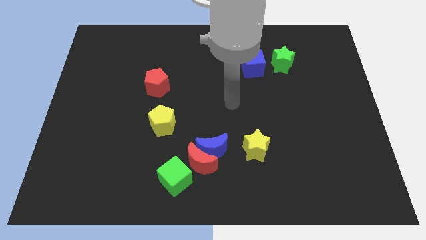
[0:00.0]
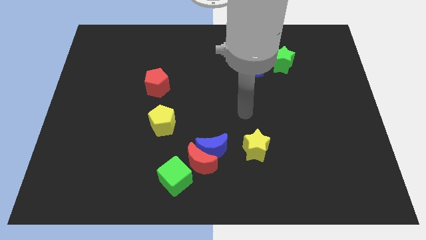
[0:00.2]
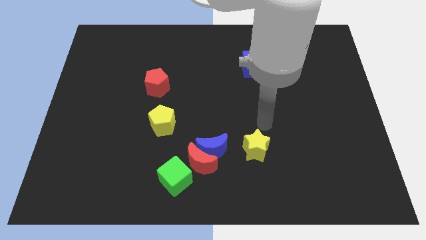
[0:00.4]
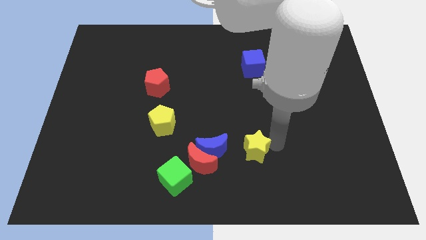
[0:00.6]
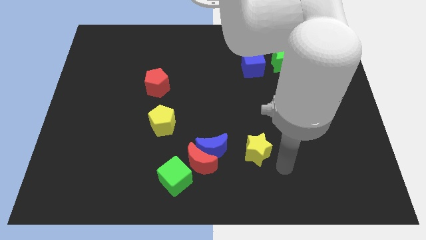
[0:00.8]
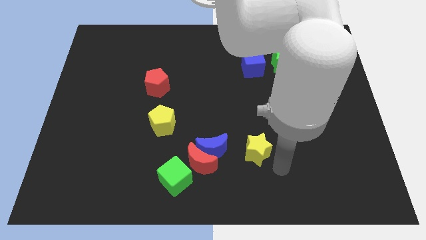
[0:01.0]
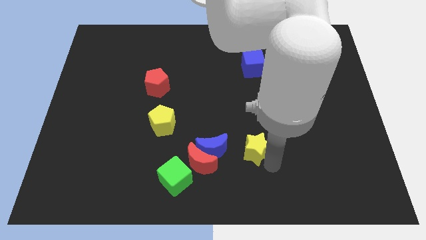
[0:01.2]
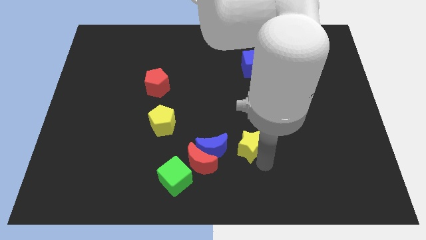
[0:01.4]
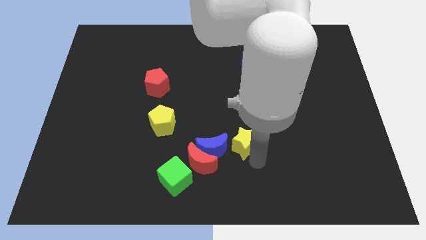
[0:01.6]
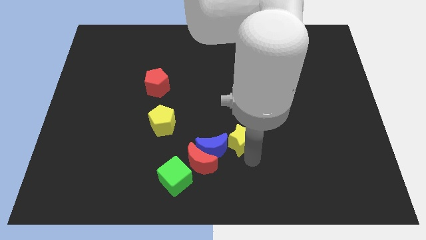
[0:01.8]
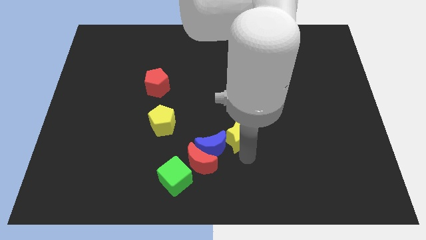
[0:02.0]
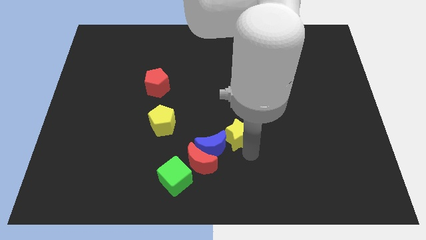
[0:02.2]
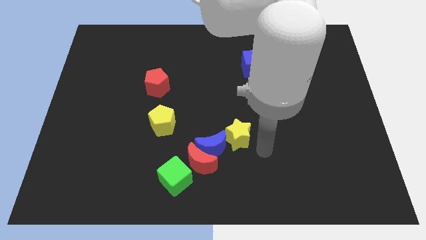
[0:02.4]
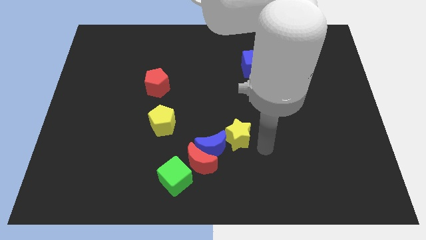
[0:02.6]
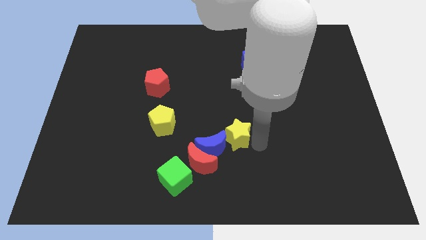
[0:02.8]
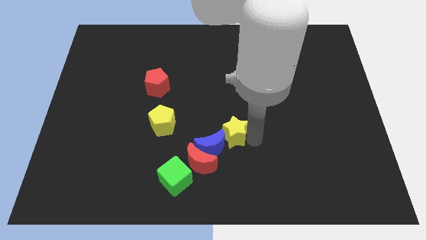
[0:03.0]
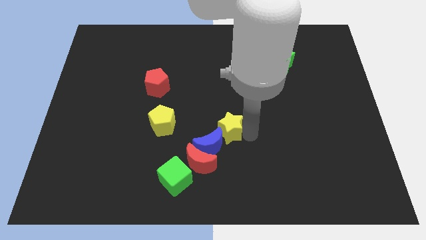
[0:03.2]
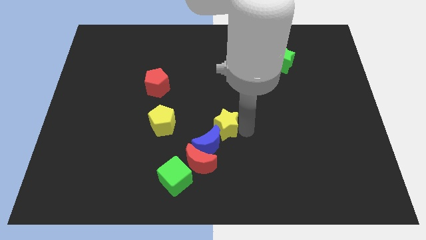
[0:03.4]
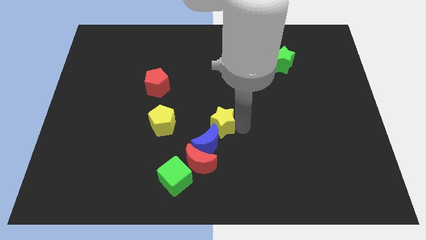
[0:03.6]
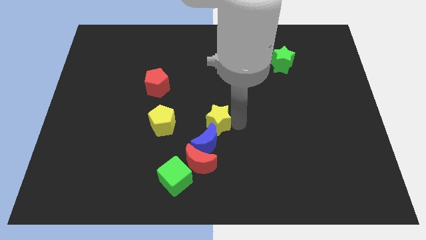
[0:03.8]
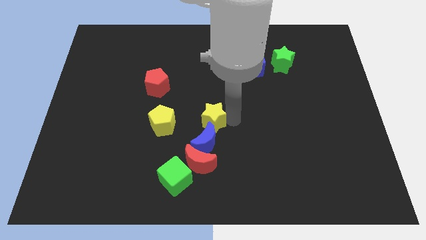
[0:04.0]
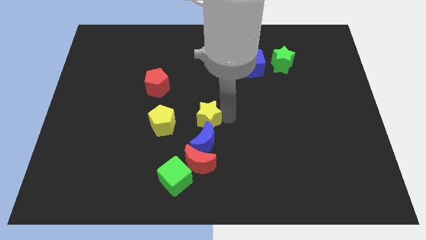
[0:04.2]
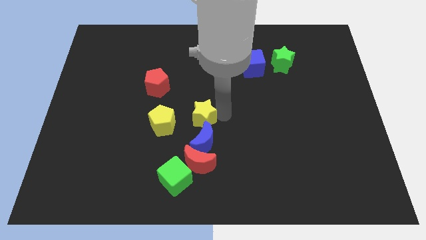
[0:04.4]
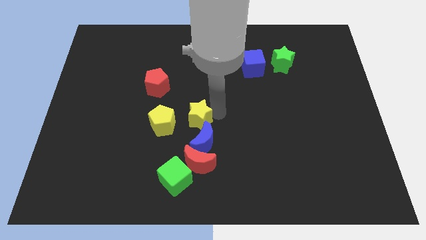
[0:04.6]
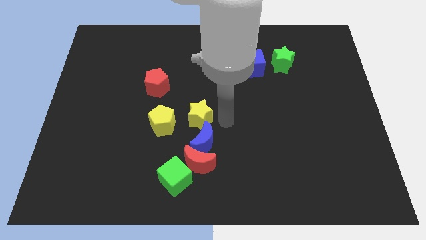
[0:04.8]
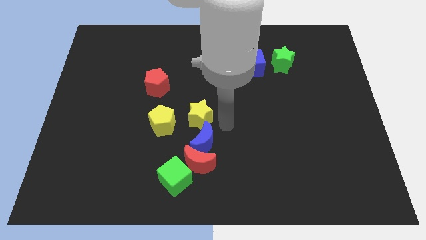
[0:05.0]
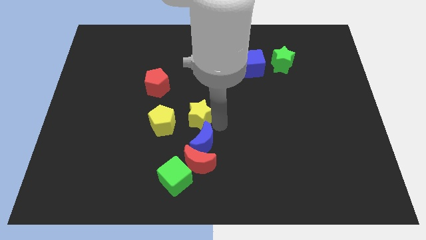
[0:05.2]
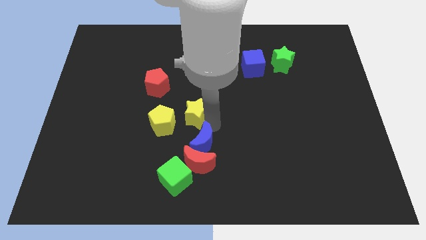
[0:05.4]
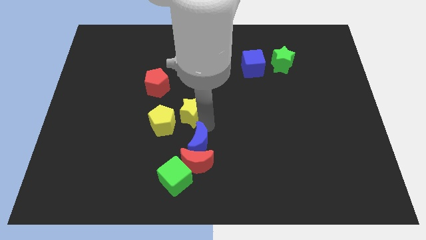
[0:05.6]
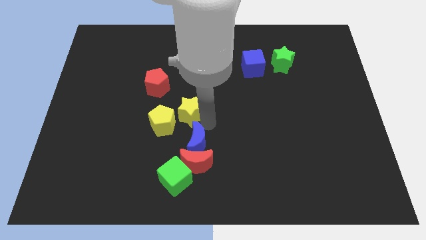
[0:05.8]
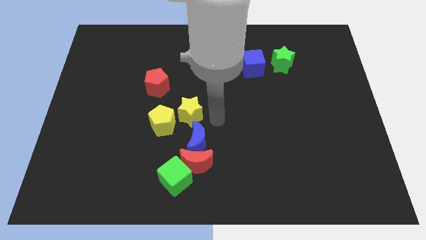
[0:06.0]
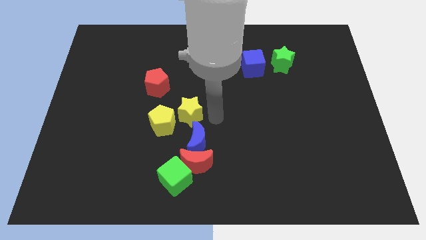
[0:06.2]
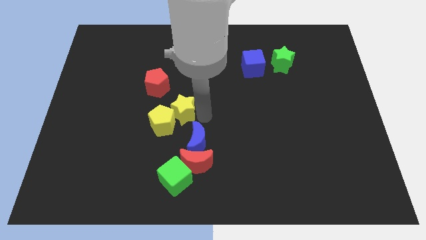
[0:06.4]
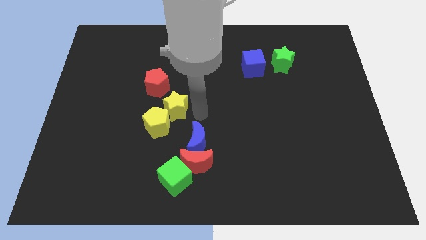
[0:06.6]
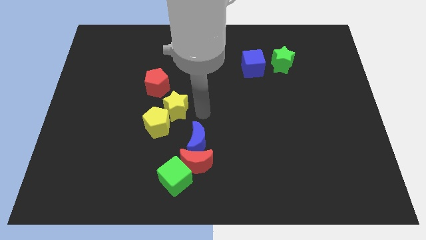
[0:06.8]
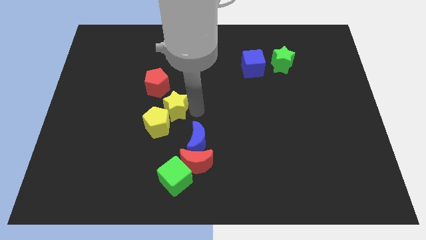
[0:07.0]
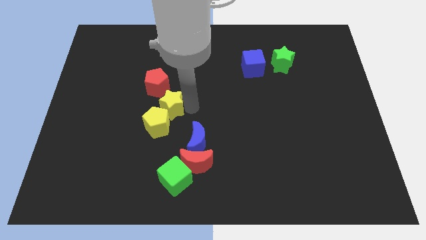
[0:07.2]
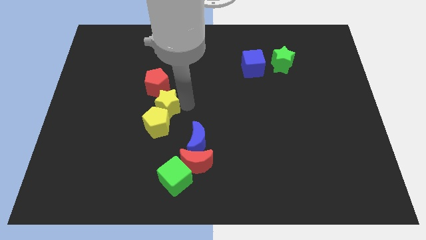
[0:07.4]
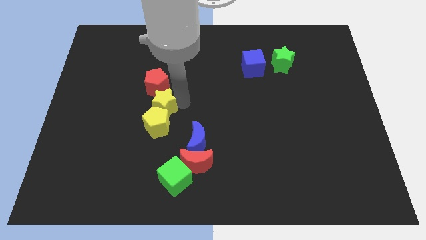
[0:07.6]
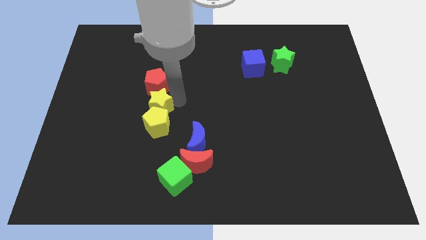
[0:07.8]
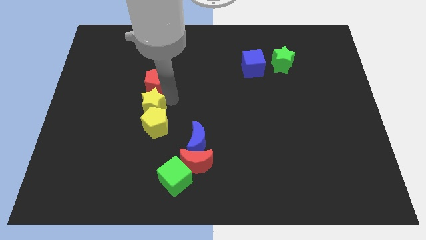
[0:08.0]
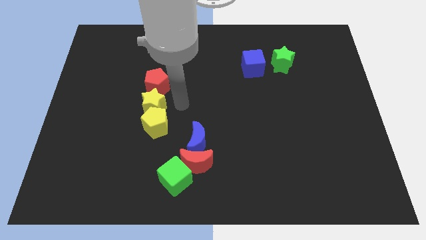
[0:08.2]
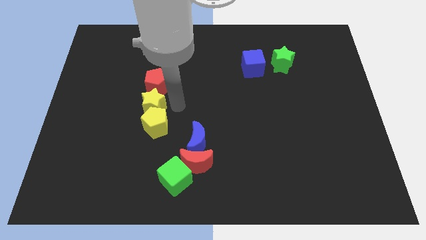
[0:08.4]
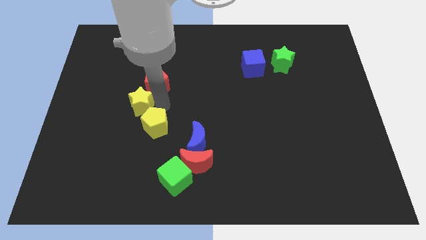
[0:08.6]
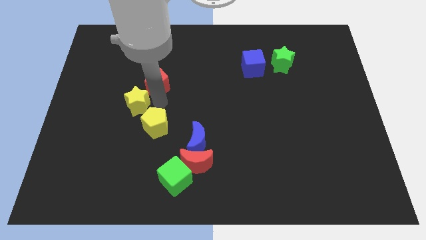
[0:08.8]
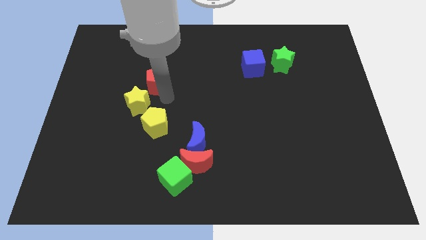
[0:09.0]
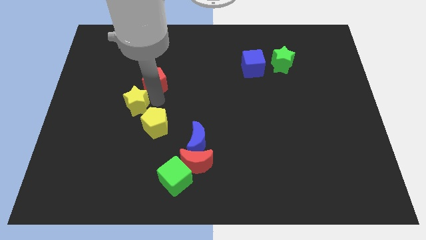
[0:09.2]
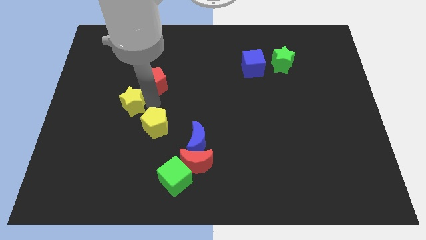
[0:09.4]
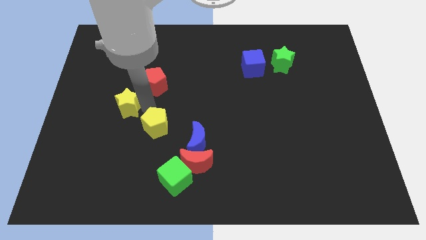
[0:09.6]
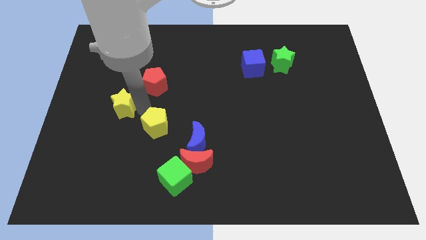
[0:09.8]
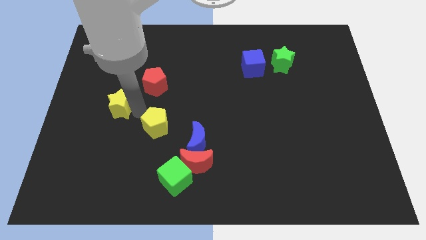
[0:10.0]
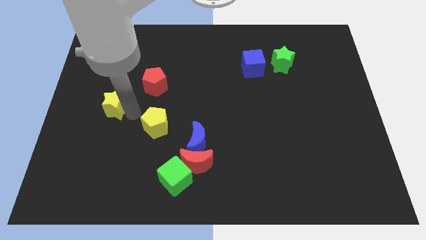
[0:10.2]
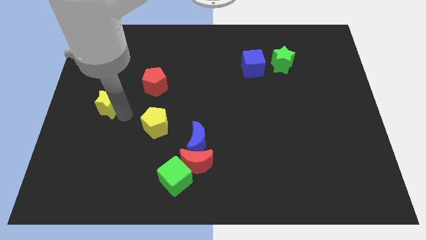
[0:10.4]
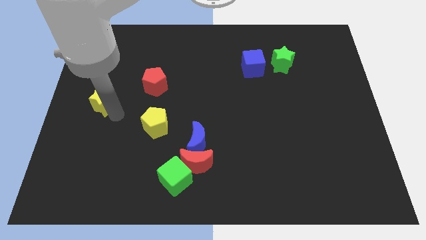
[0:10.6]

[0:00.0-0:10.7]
move the yellow star to the left side

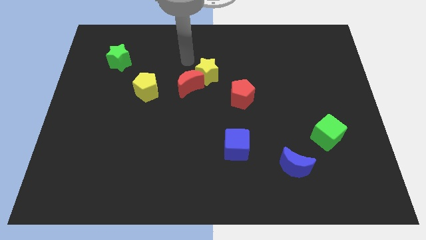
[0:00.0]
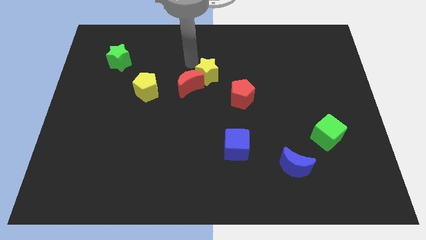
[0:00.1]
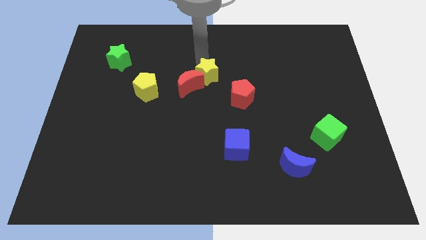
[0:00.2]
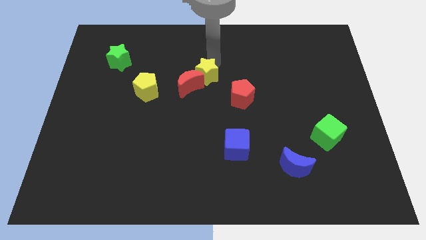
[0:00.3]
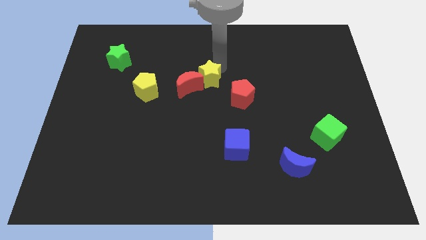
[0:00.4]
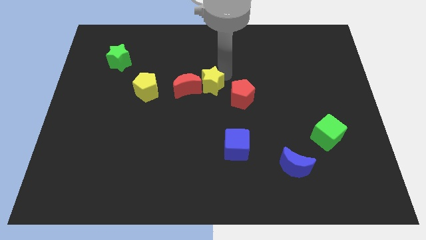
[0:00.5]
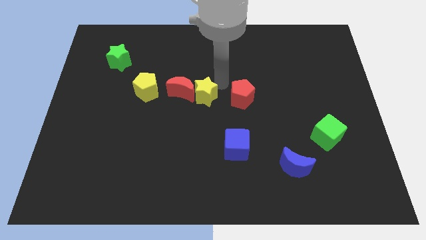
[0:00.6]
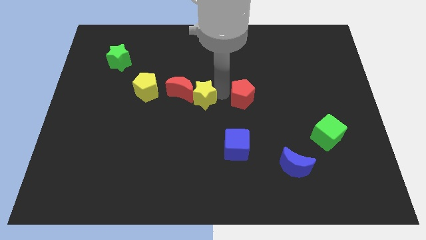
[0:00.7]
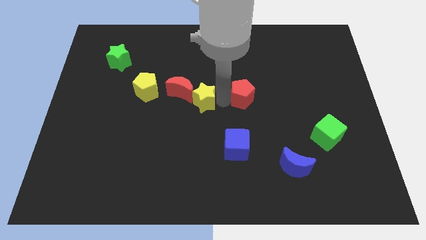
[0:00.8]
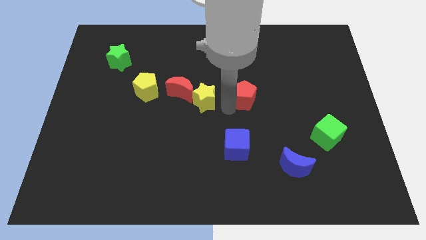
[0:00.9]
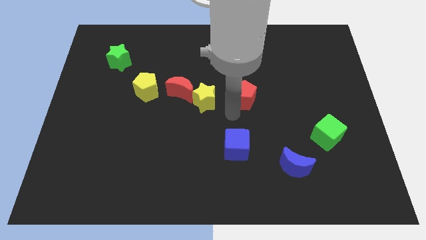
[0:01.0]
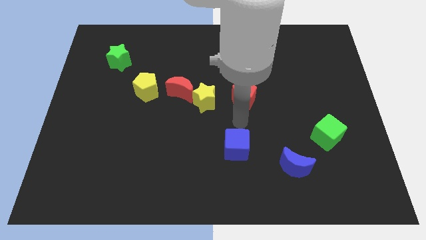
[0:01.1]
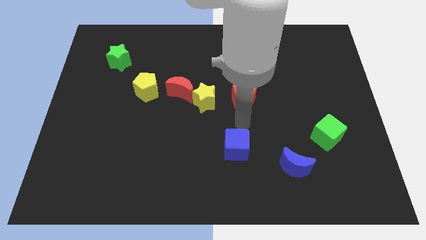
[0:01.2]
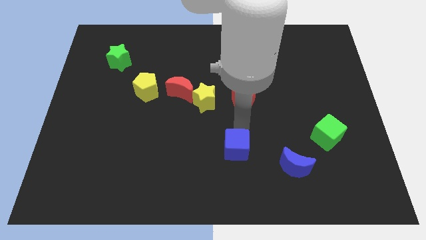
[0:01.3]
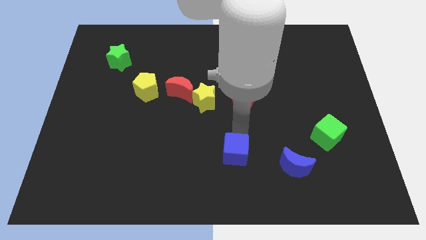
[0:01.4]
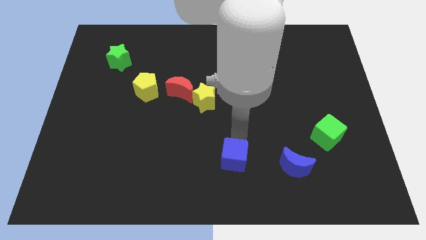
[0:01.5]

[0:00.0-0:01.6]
slide the blue cube to the bottom side
